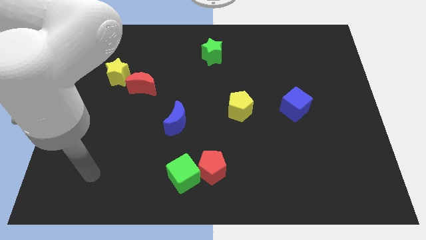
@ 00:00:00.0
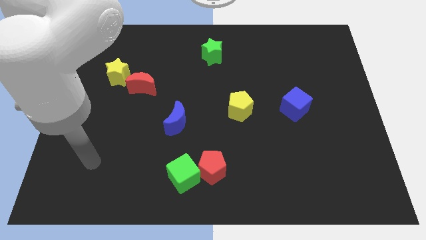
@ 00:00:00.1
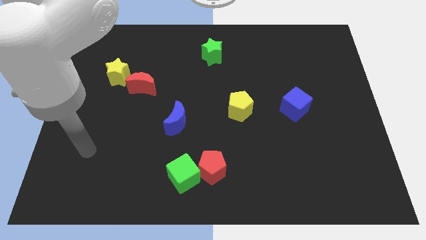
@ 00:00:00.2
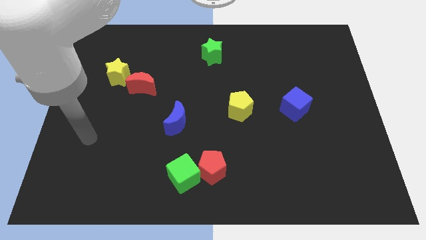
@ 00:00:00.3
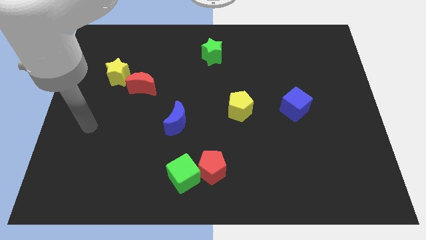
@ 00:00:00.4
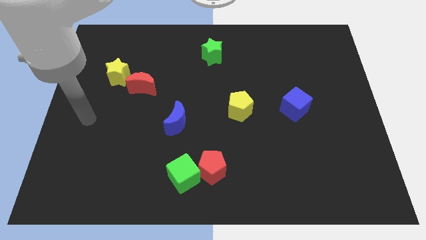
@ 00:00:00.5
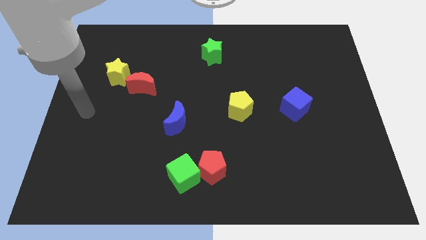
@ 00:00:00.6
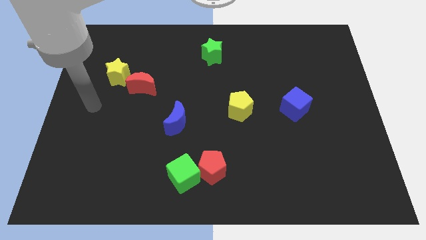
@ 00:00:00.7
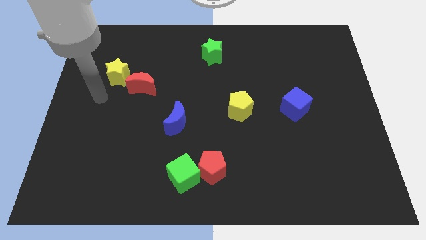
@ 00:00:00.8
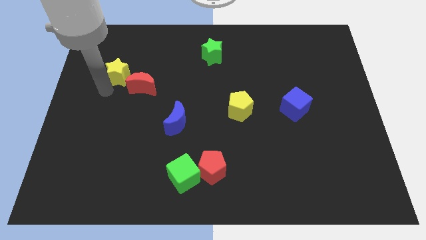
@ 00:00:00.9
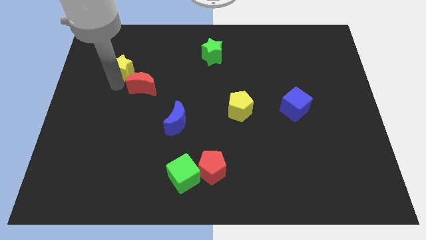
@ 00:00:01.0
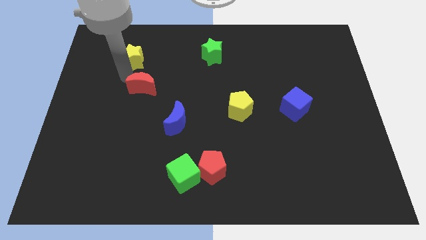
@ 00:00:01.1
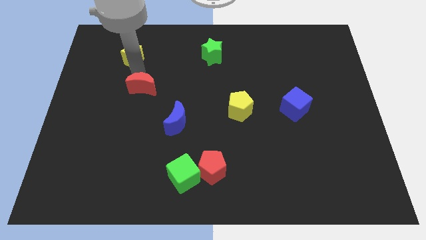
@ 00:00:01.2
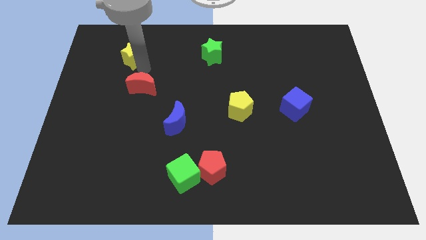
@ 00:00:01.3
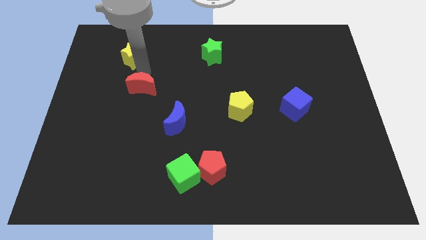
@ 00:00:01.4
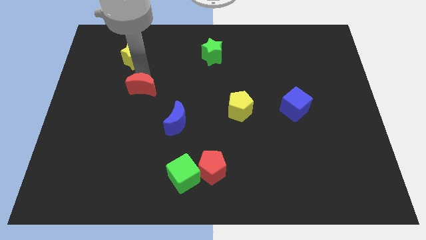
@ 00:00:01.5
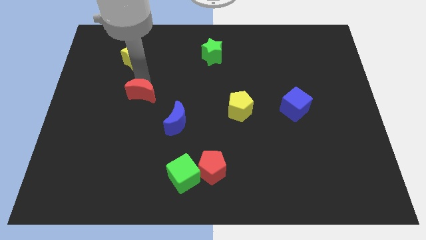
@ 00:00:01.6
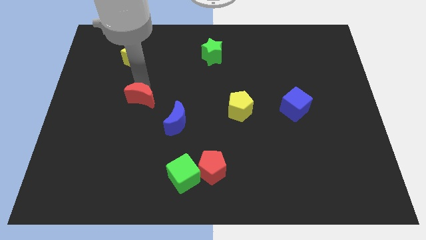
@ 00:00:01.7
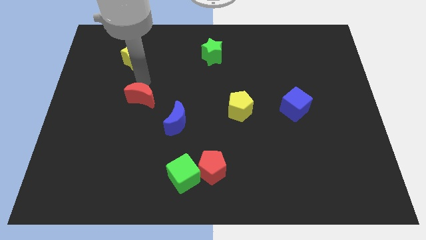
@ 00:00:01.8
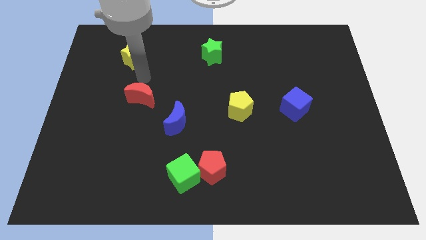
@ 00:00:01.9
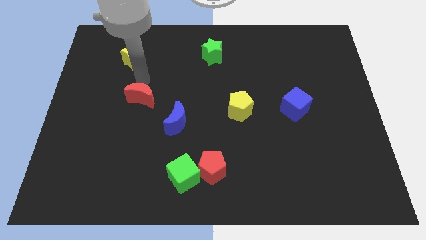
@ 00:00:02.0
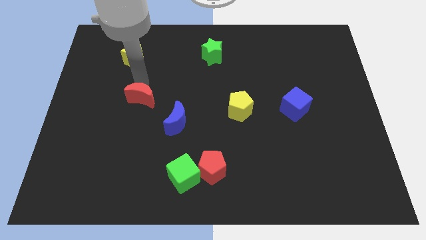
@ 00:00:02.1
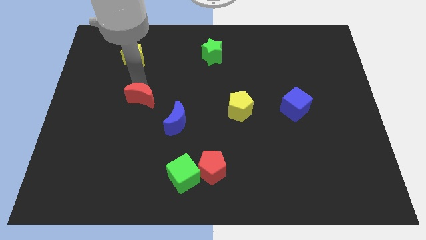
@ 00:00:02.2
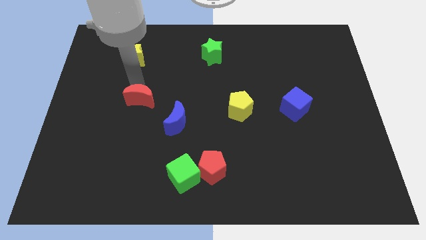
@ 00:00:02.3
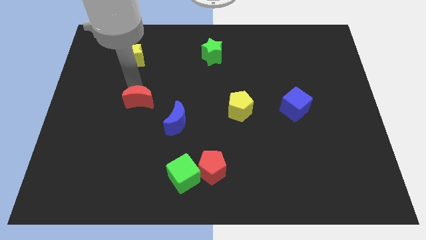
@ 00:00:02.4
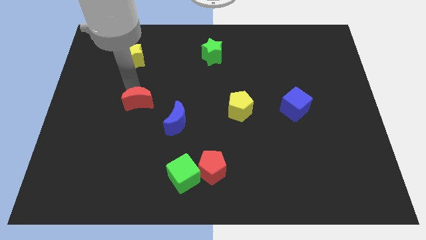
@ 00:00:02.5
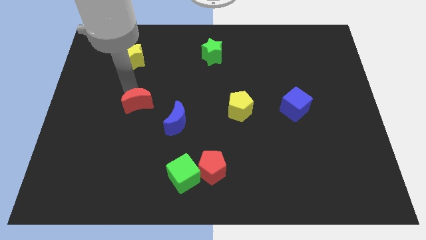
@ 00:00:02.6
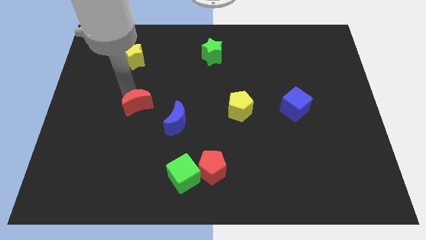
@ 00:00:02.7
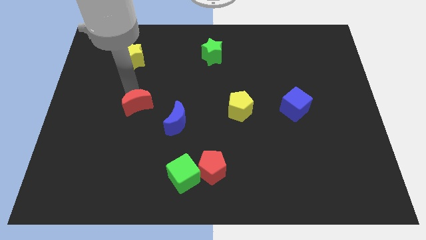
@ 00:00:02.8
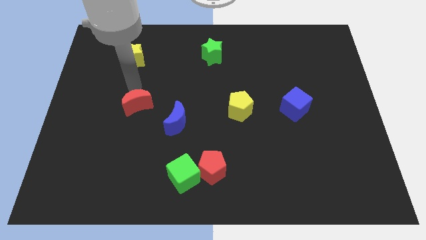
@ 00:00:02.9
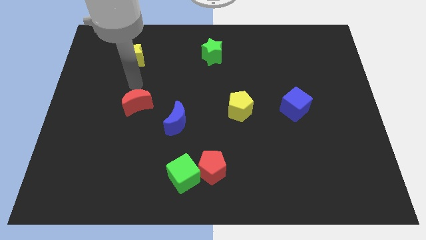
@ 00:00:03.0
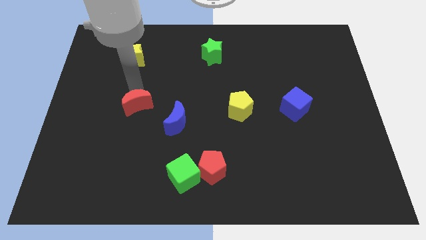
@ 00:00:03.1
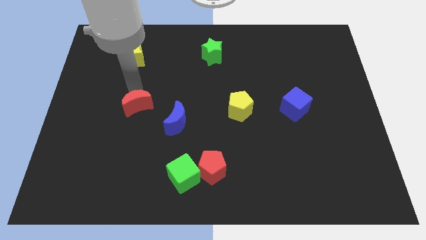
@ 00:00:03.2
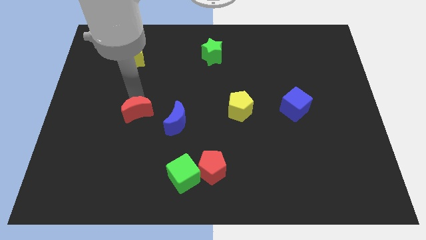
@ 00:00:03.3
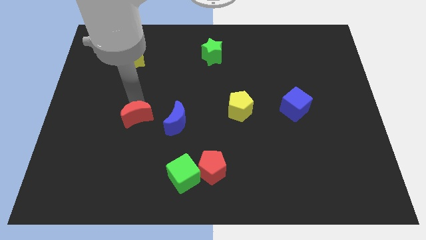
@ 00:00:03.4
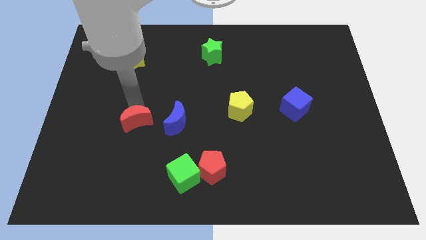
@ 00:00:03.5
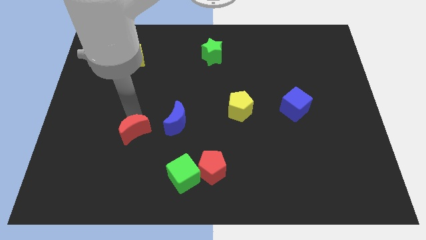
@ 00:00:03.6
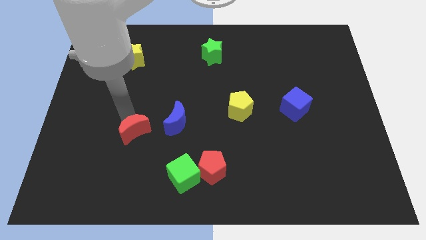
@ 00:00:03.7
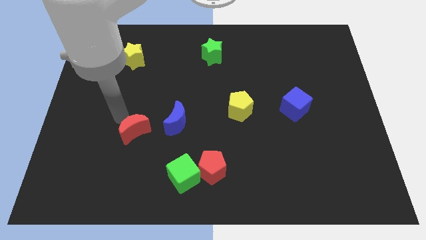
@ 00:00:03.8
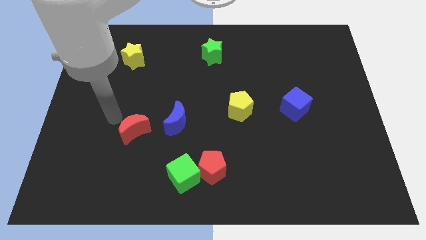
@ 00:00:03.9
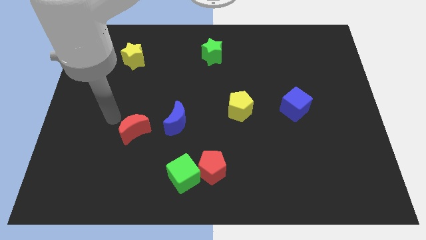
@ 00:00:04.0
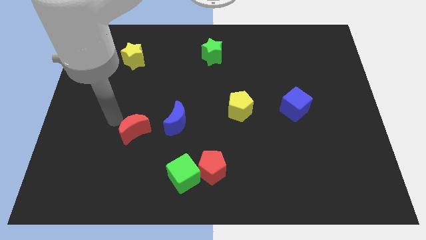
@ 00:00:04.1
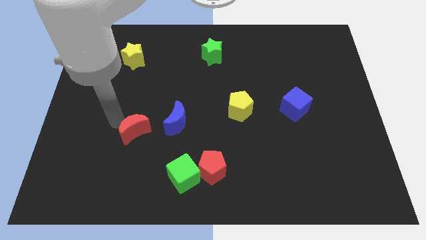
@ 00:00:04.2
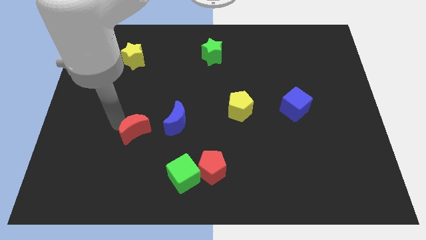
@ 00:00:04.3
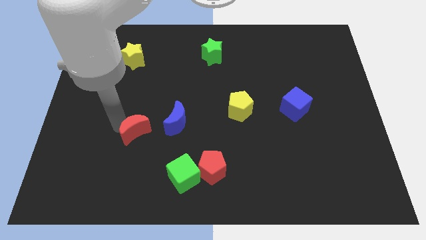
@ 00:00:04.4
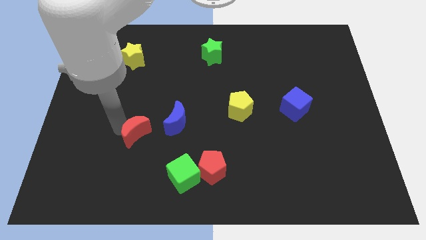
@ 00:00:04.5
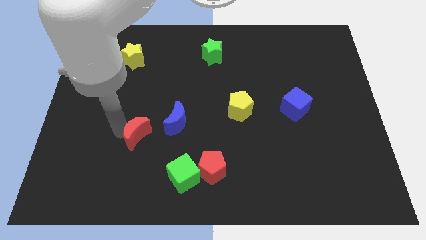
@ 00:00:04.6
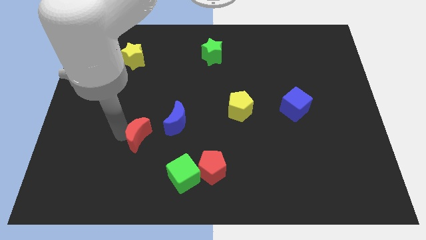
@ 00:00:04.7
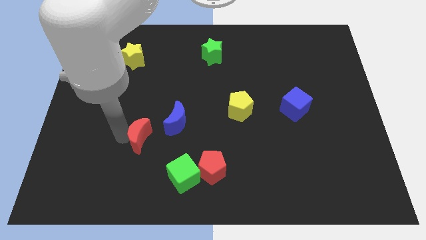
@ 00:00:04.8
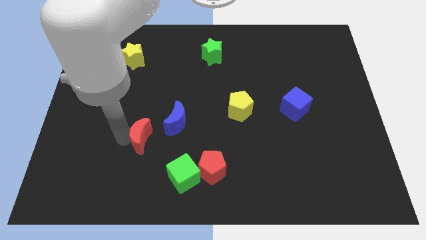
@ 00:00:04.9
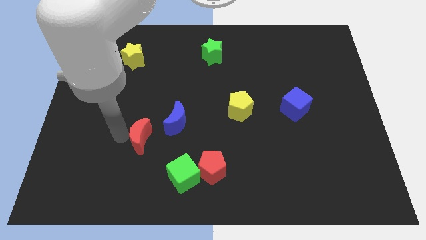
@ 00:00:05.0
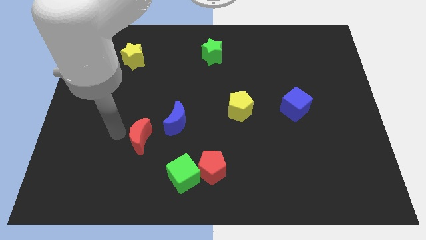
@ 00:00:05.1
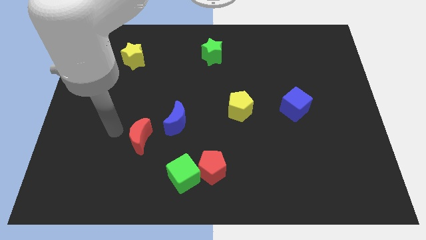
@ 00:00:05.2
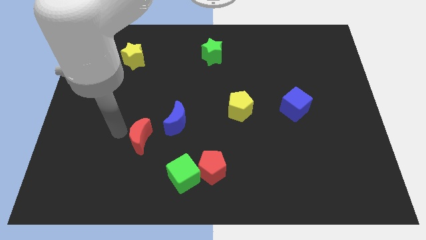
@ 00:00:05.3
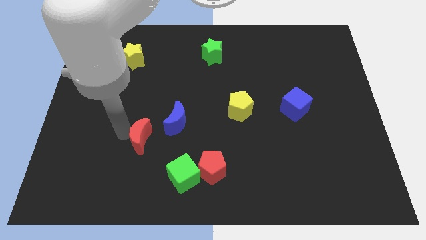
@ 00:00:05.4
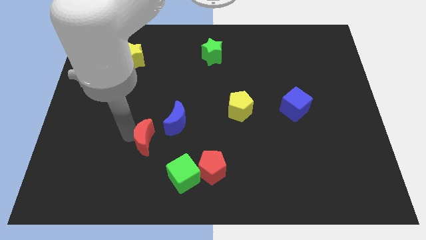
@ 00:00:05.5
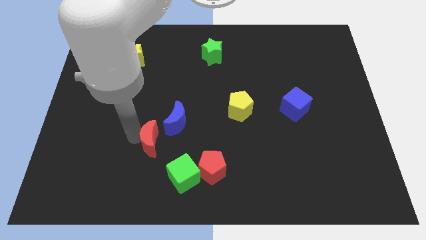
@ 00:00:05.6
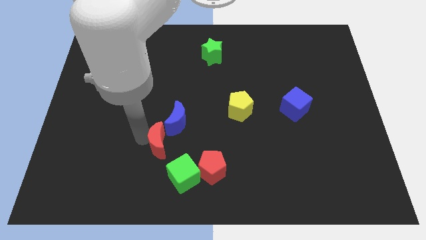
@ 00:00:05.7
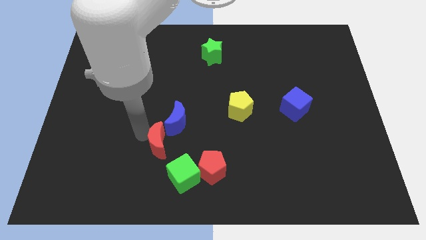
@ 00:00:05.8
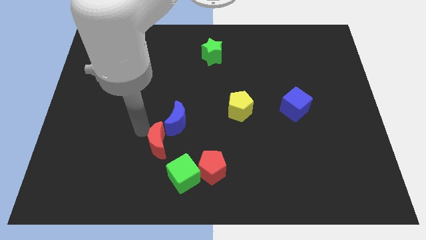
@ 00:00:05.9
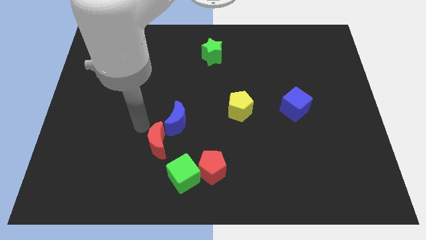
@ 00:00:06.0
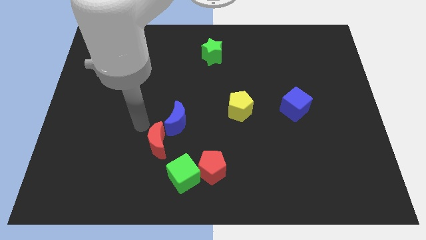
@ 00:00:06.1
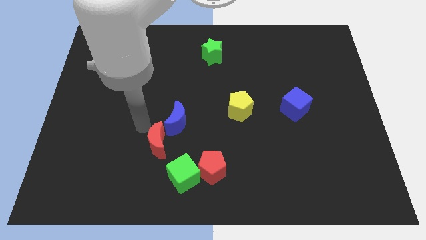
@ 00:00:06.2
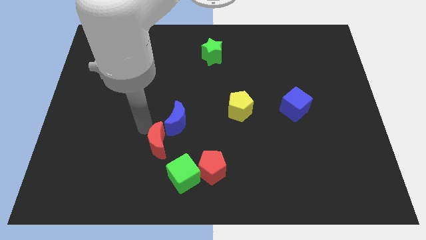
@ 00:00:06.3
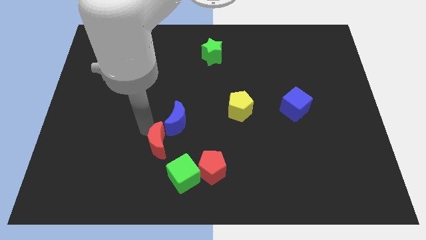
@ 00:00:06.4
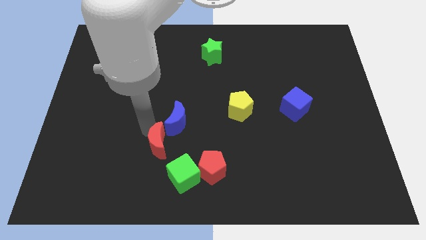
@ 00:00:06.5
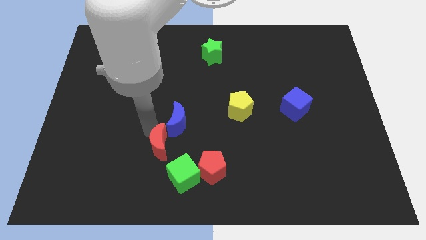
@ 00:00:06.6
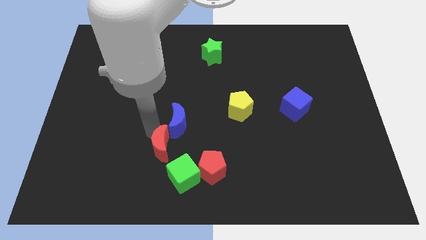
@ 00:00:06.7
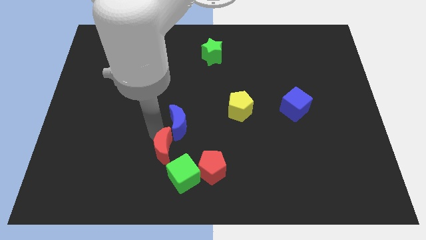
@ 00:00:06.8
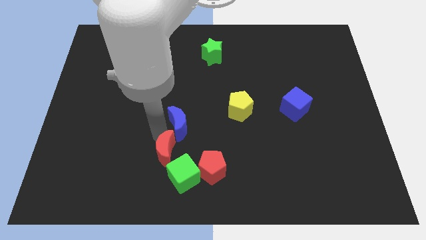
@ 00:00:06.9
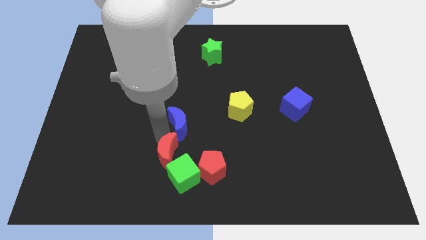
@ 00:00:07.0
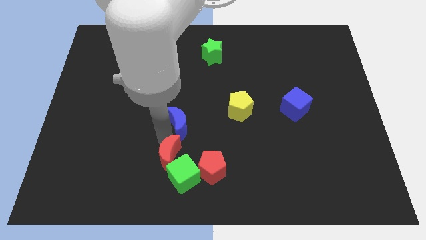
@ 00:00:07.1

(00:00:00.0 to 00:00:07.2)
put the red moon next to the green cube
